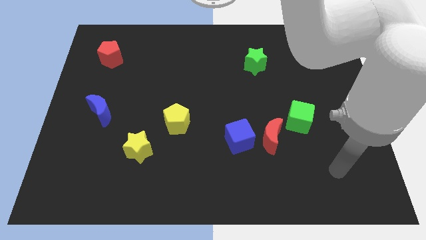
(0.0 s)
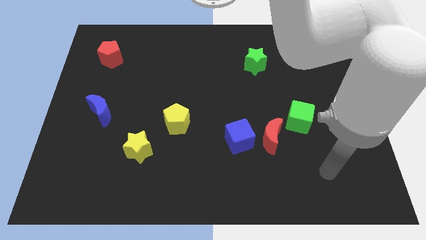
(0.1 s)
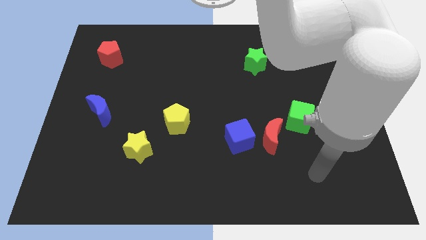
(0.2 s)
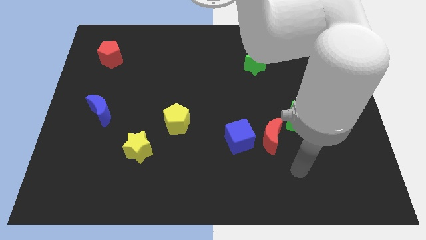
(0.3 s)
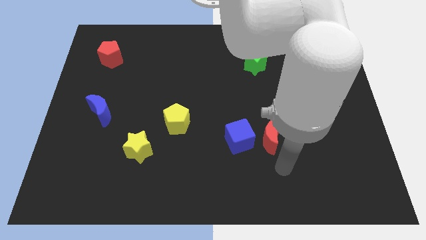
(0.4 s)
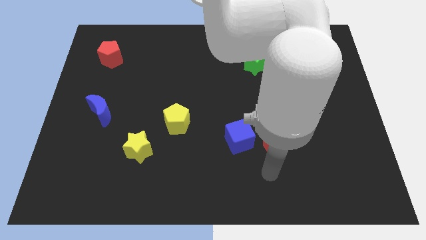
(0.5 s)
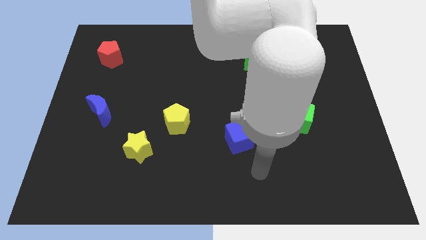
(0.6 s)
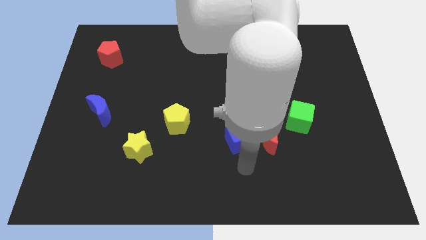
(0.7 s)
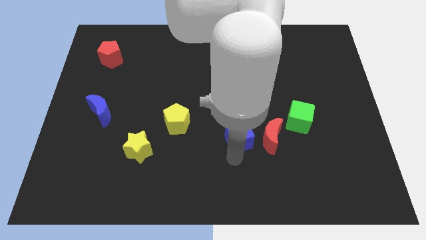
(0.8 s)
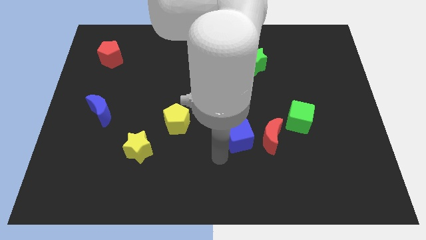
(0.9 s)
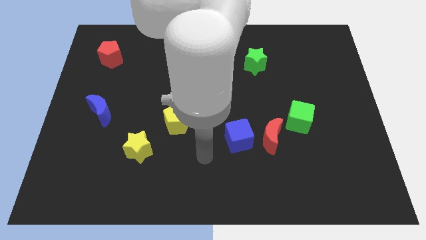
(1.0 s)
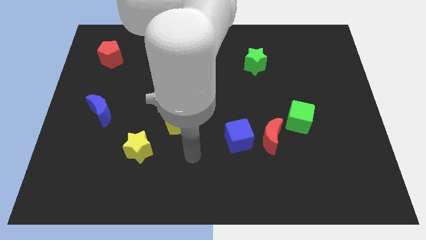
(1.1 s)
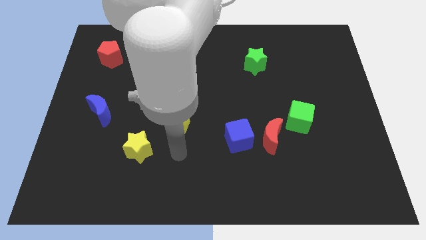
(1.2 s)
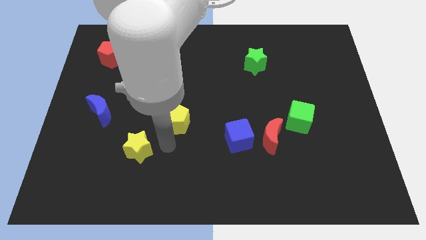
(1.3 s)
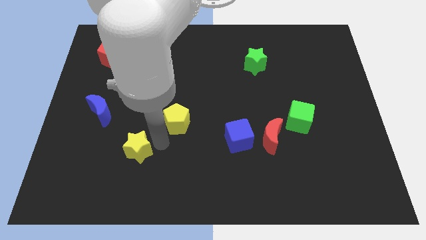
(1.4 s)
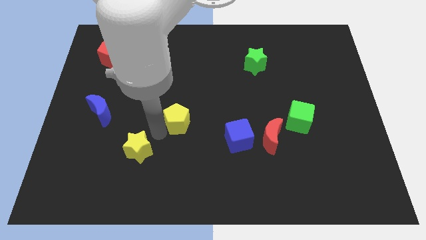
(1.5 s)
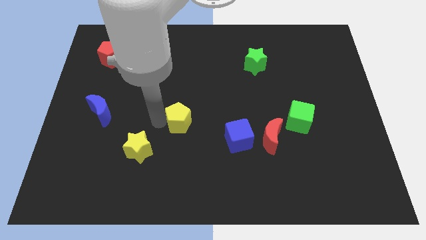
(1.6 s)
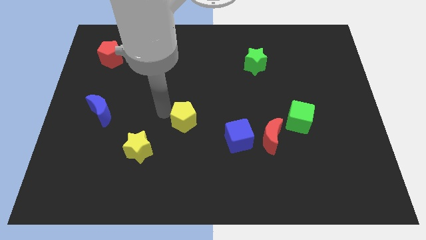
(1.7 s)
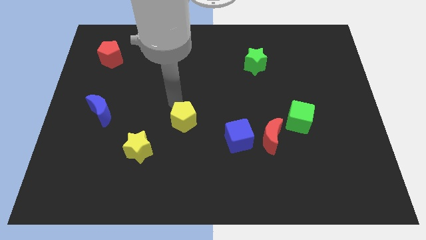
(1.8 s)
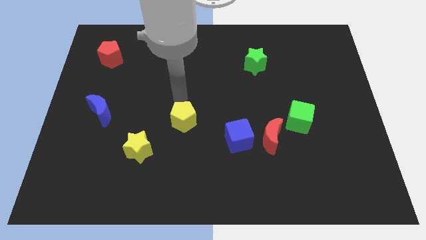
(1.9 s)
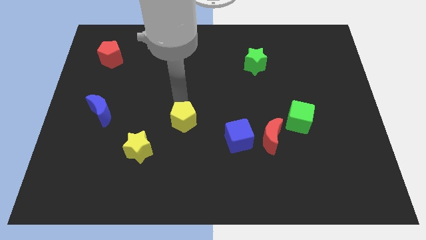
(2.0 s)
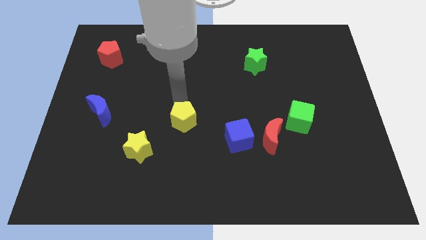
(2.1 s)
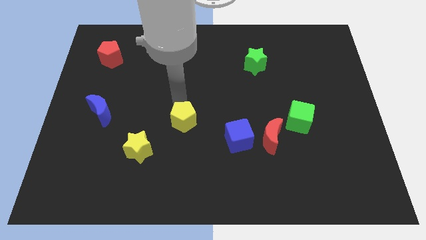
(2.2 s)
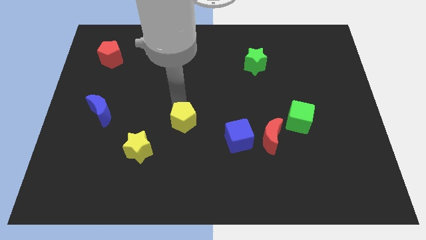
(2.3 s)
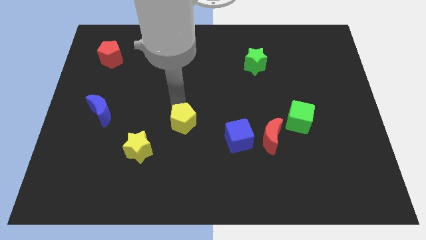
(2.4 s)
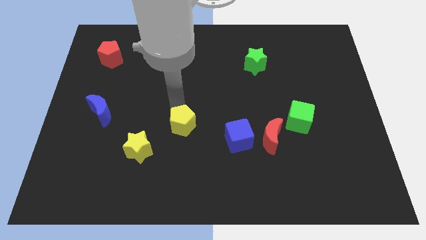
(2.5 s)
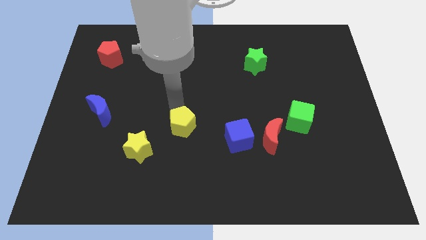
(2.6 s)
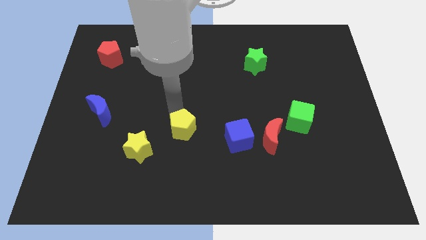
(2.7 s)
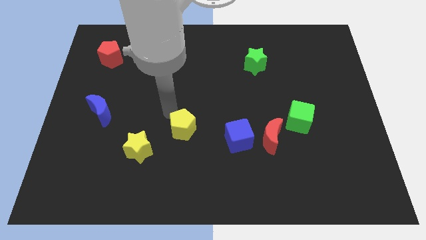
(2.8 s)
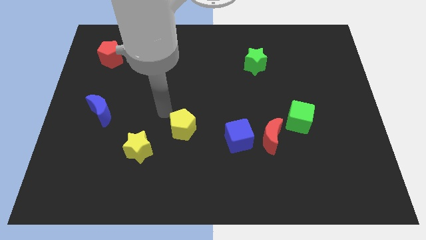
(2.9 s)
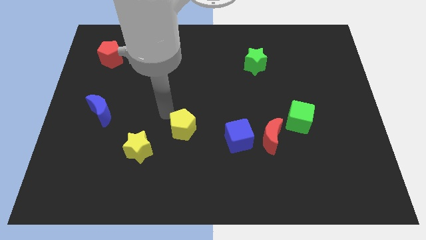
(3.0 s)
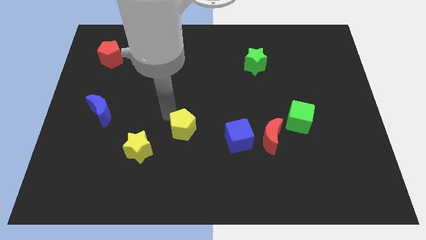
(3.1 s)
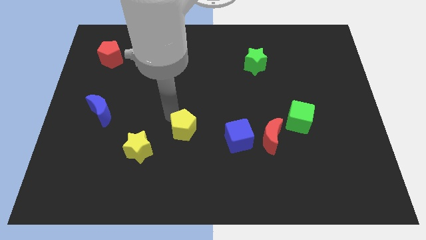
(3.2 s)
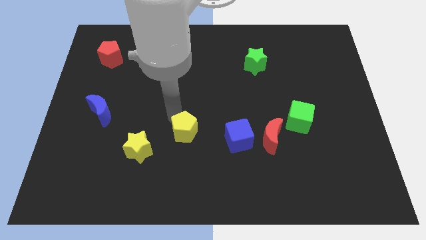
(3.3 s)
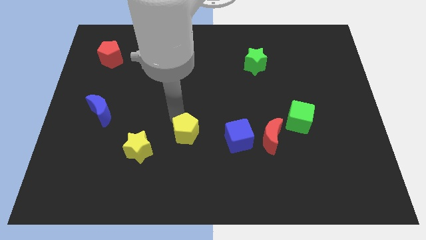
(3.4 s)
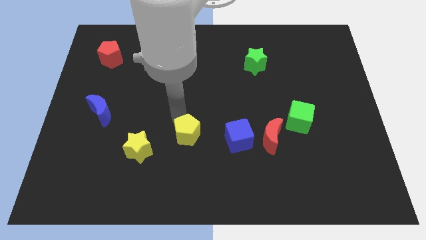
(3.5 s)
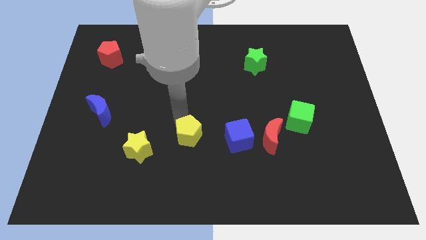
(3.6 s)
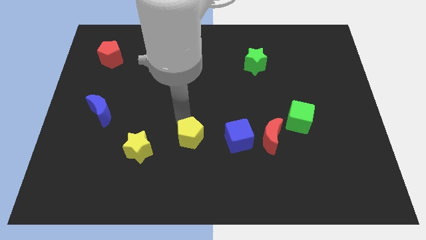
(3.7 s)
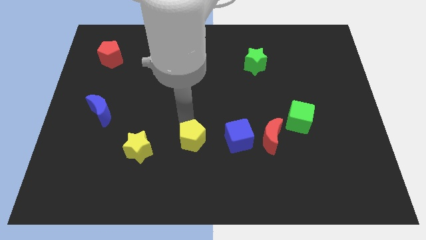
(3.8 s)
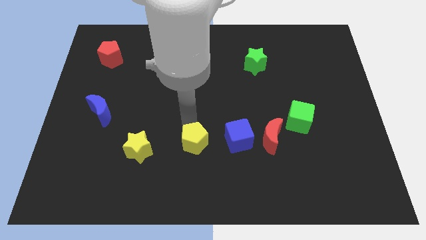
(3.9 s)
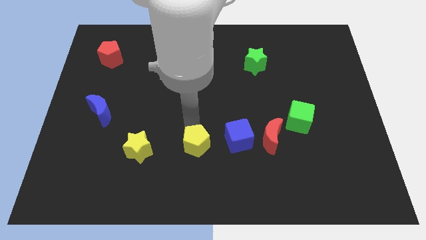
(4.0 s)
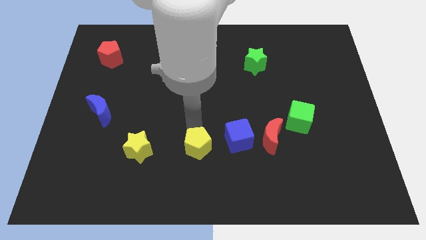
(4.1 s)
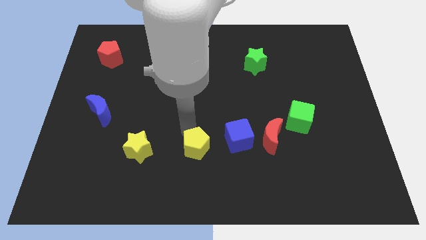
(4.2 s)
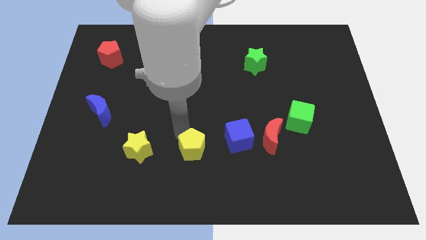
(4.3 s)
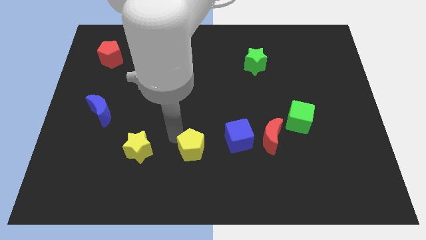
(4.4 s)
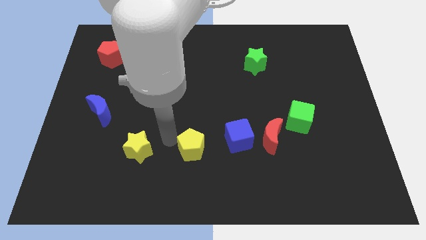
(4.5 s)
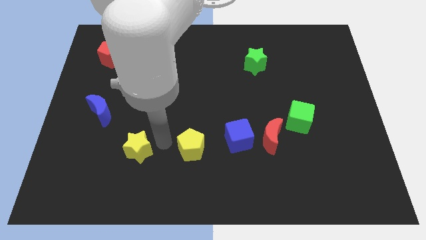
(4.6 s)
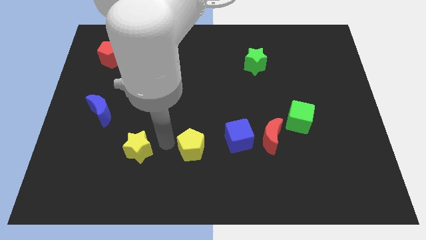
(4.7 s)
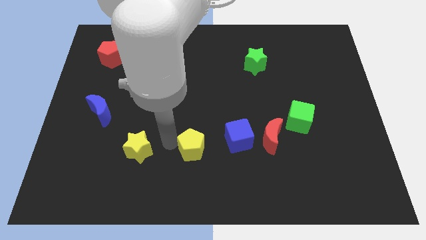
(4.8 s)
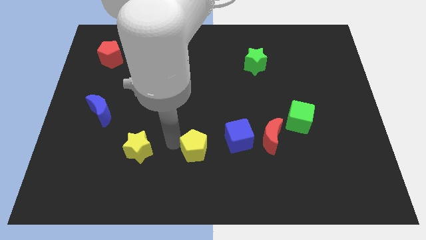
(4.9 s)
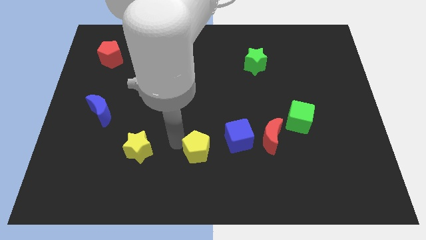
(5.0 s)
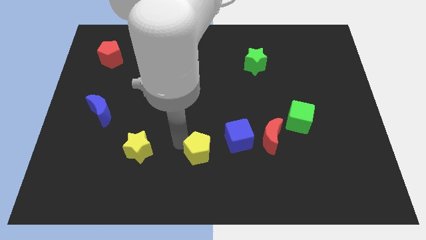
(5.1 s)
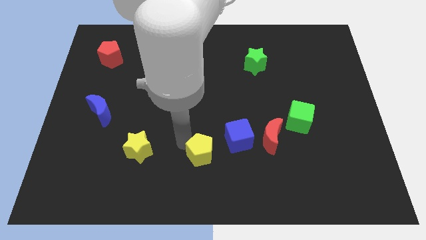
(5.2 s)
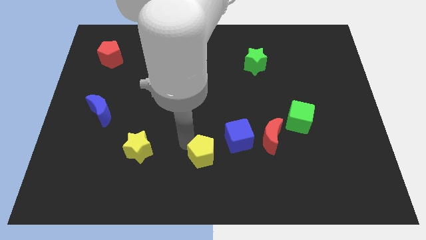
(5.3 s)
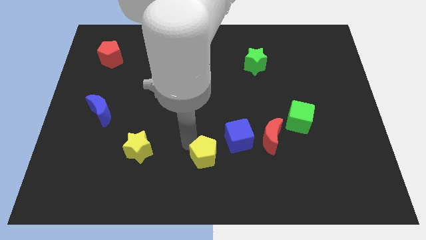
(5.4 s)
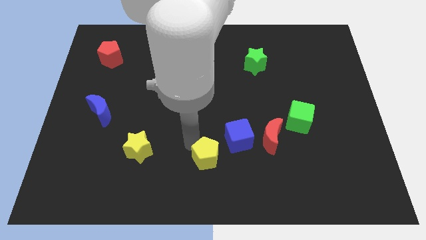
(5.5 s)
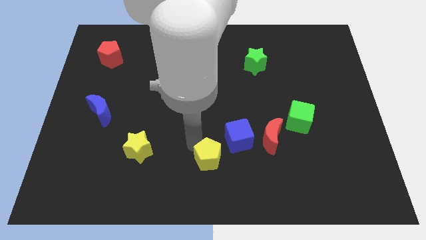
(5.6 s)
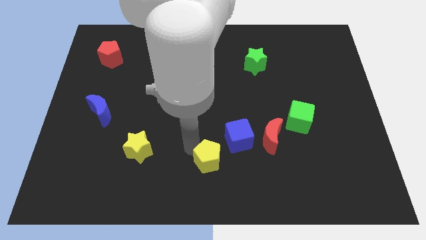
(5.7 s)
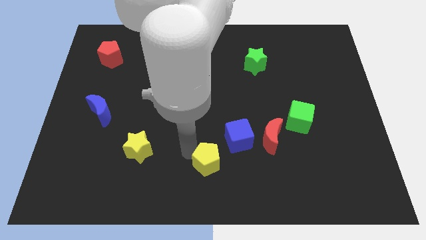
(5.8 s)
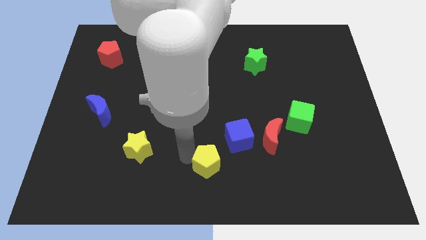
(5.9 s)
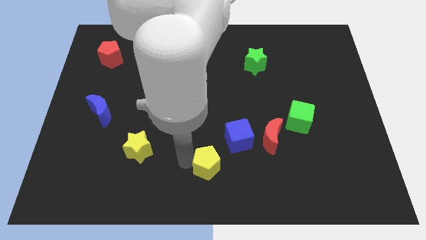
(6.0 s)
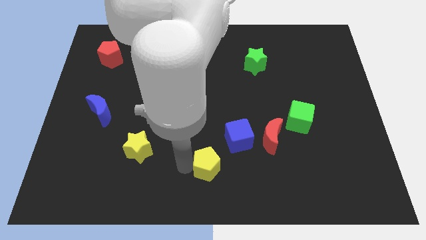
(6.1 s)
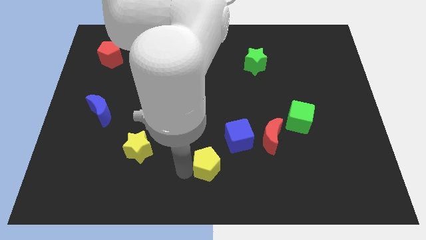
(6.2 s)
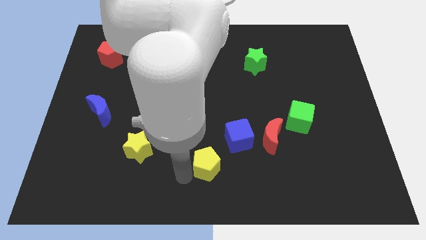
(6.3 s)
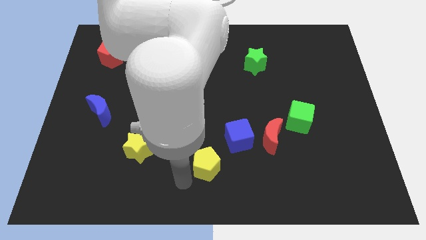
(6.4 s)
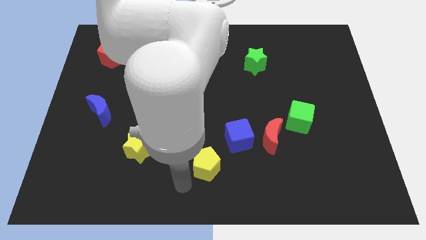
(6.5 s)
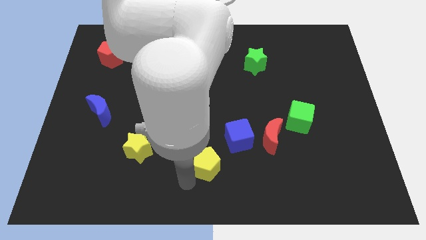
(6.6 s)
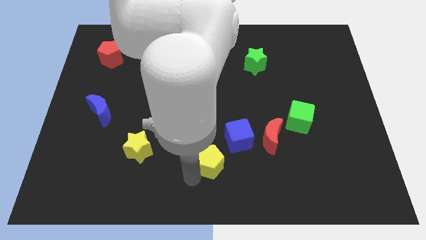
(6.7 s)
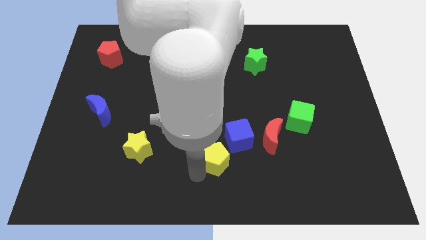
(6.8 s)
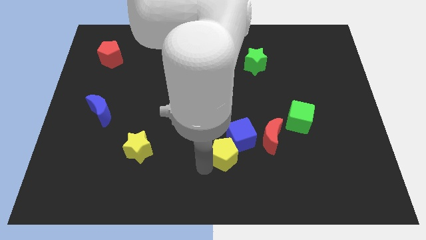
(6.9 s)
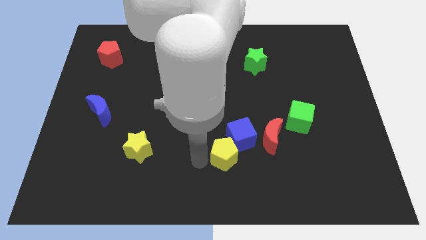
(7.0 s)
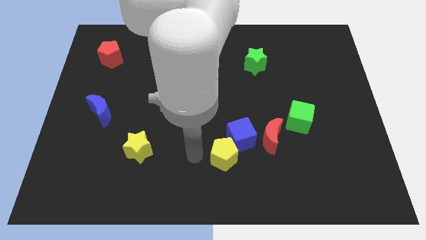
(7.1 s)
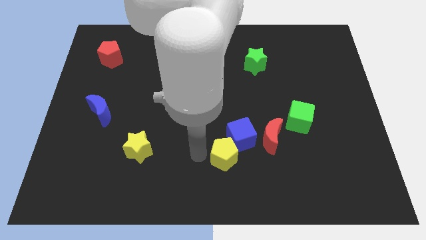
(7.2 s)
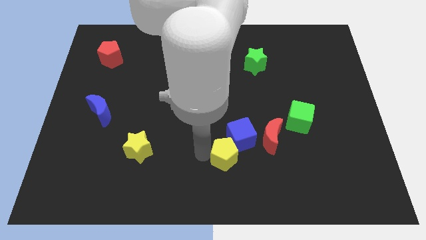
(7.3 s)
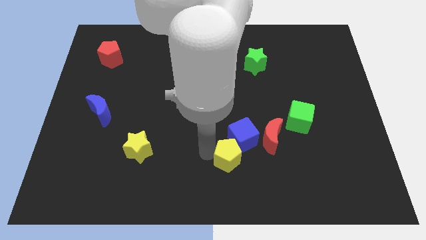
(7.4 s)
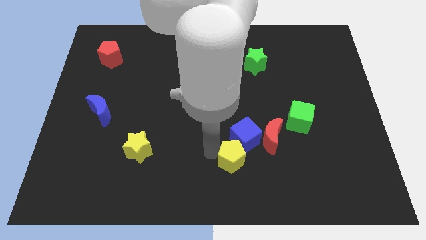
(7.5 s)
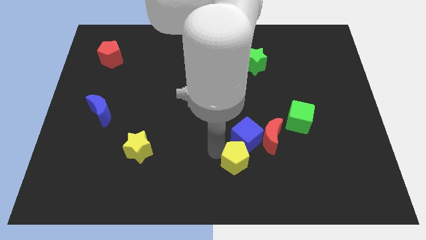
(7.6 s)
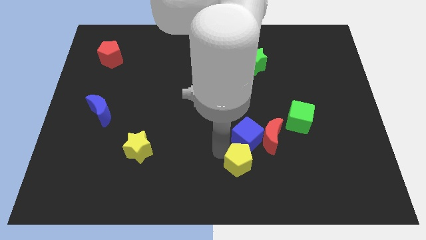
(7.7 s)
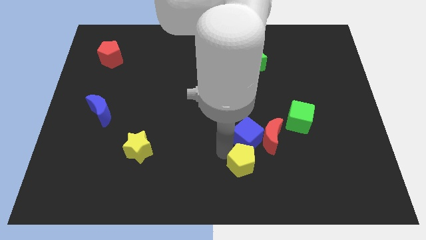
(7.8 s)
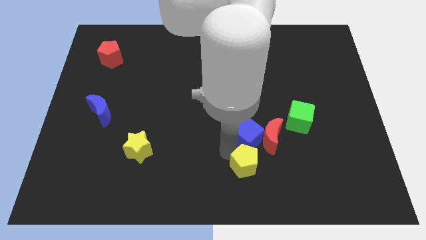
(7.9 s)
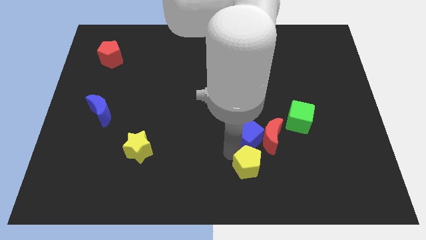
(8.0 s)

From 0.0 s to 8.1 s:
push the yellow pentagon to the bottom right side of the blue cube

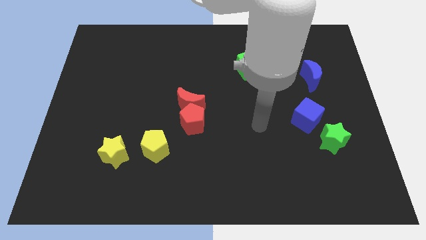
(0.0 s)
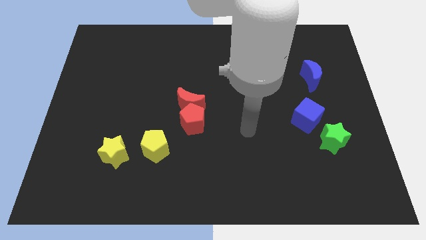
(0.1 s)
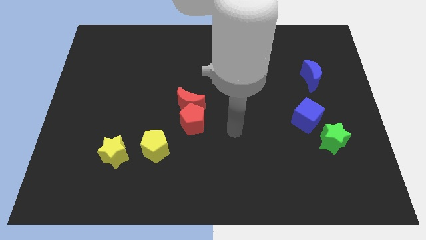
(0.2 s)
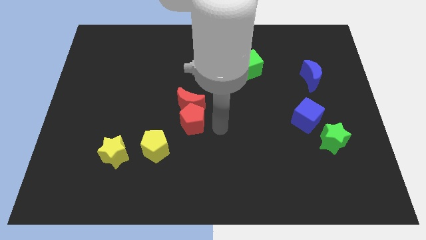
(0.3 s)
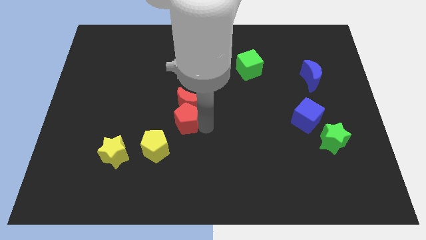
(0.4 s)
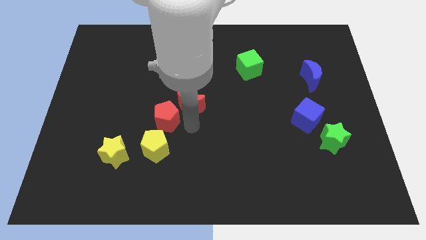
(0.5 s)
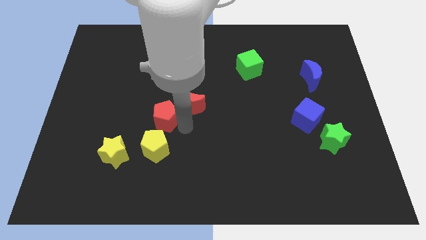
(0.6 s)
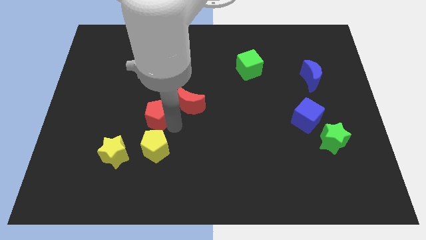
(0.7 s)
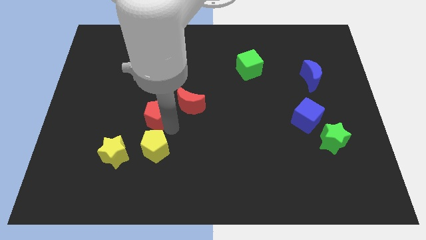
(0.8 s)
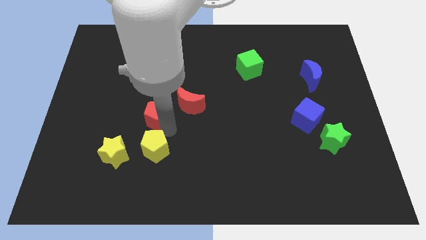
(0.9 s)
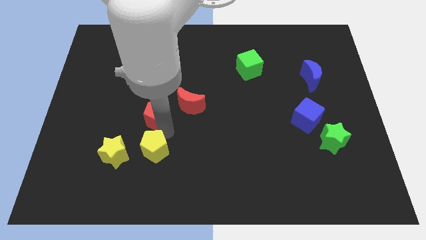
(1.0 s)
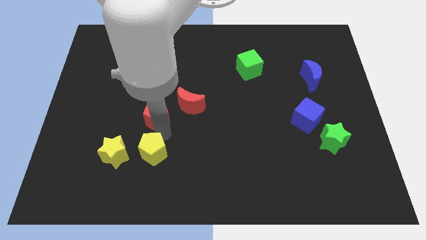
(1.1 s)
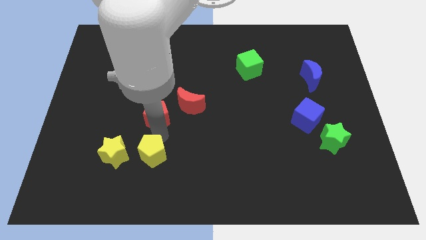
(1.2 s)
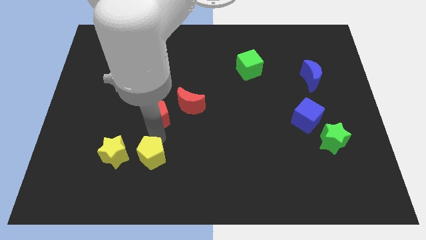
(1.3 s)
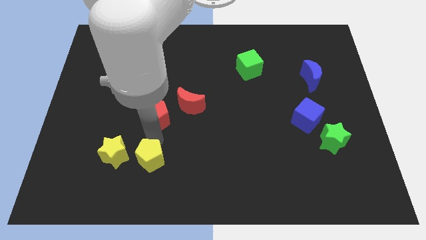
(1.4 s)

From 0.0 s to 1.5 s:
slide the yellow pentagon diagonally down and to the right of the yellow star
